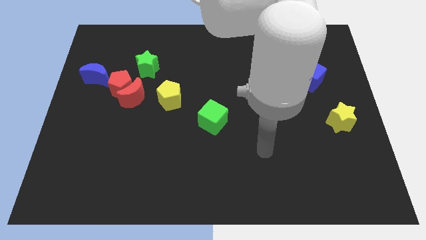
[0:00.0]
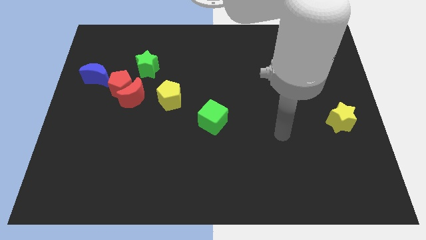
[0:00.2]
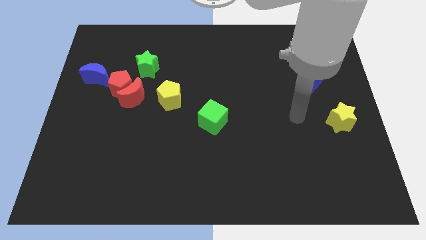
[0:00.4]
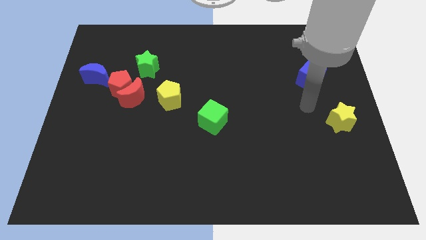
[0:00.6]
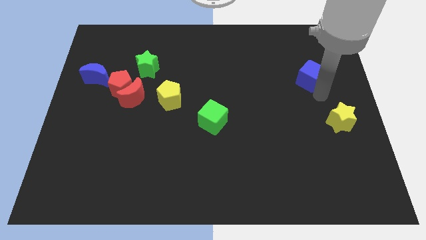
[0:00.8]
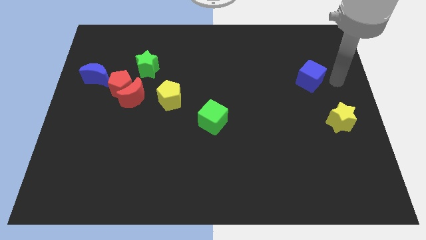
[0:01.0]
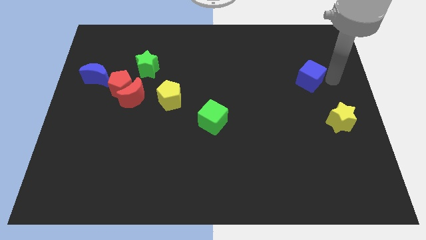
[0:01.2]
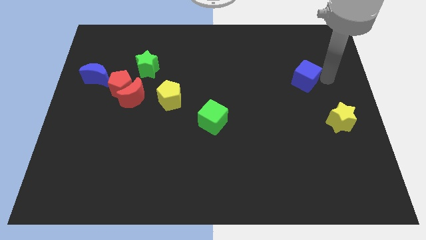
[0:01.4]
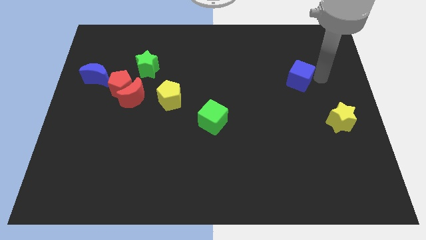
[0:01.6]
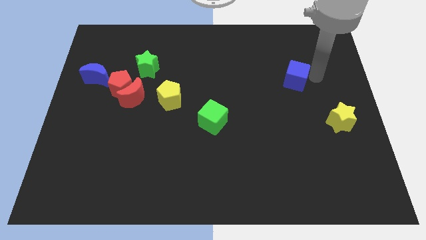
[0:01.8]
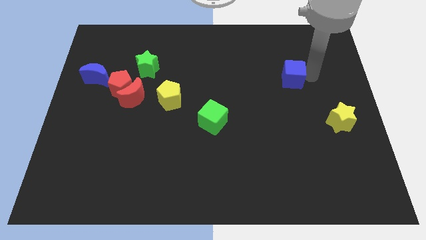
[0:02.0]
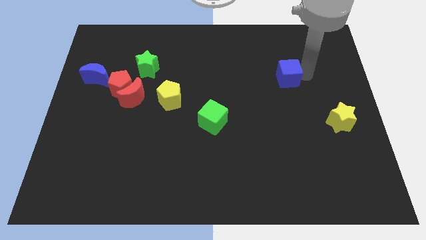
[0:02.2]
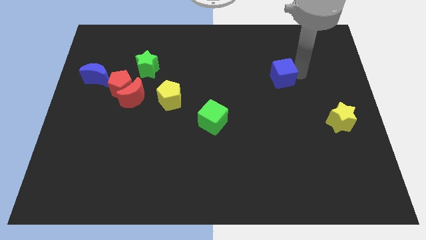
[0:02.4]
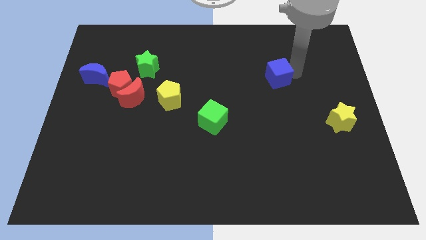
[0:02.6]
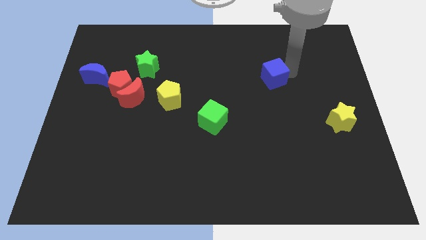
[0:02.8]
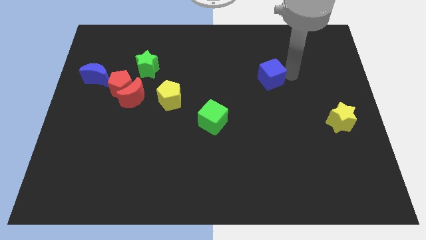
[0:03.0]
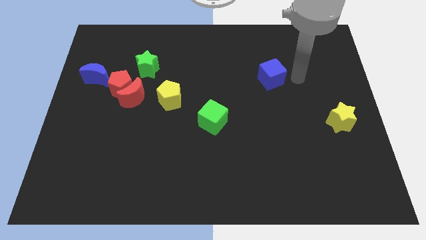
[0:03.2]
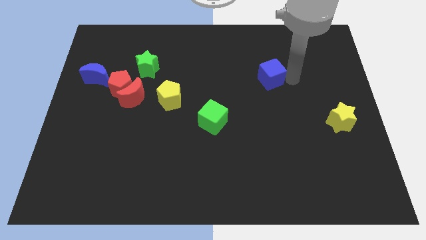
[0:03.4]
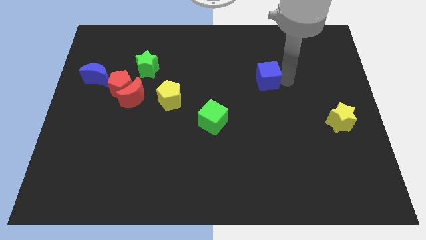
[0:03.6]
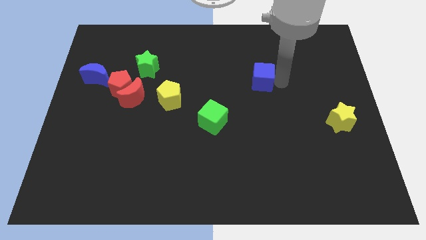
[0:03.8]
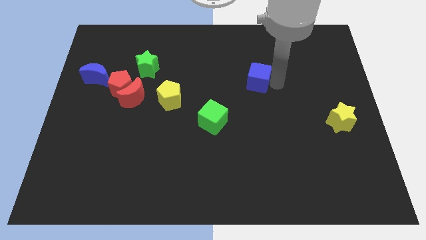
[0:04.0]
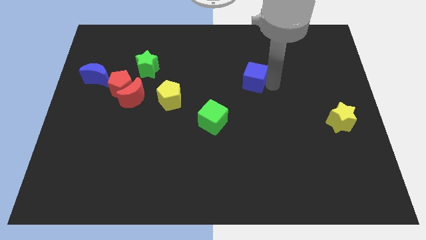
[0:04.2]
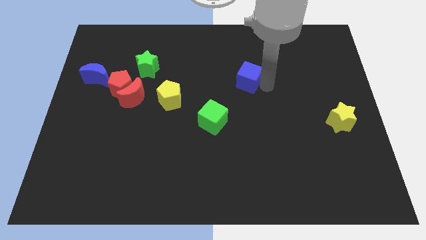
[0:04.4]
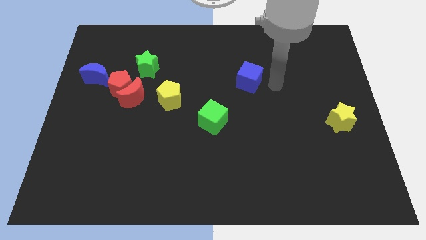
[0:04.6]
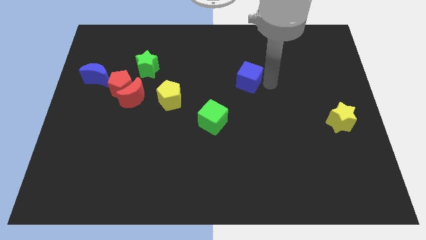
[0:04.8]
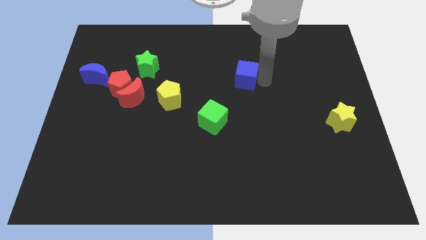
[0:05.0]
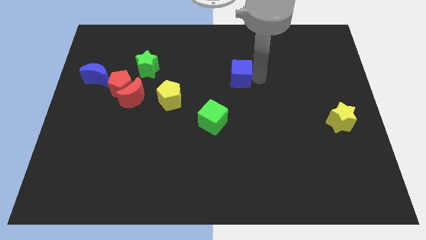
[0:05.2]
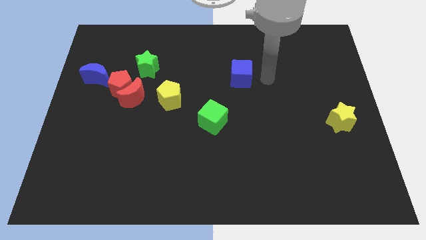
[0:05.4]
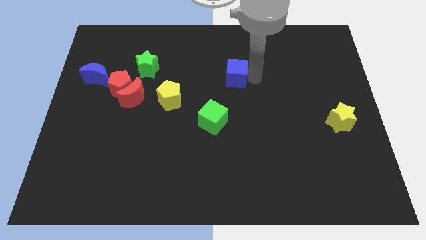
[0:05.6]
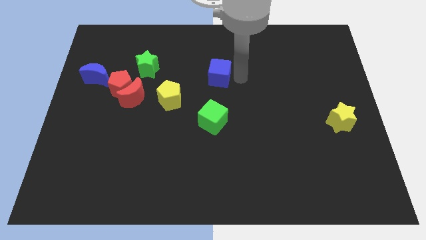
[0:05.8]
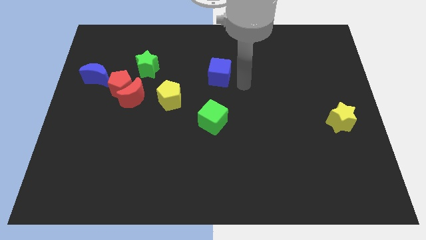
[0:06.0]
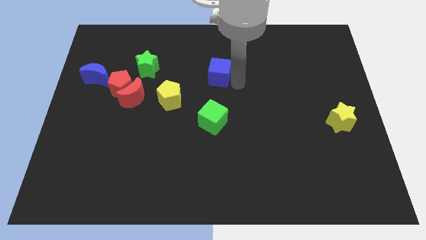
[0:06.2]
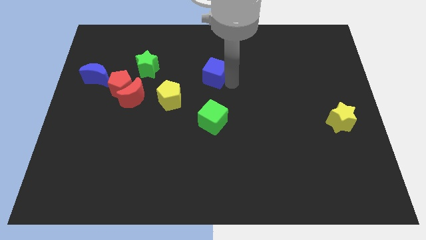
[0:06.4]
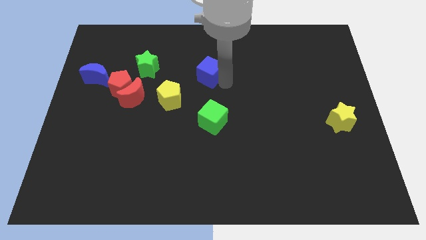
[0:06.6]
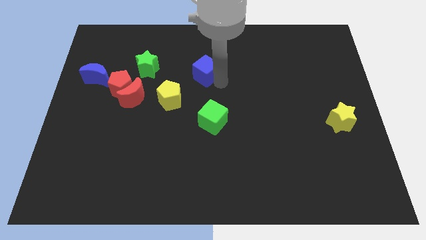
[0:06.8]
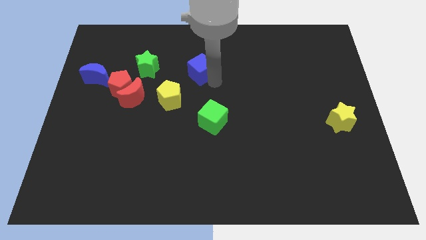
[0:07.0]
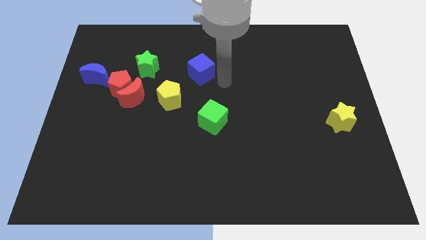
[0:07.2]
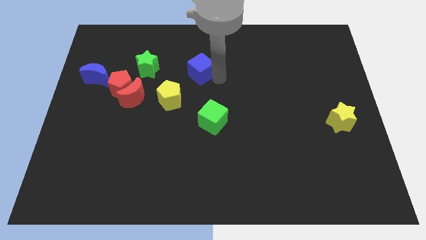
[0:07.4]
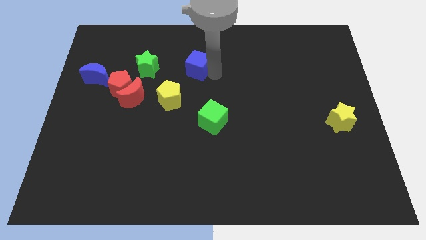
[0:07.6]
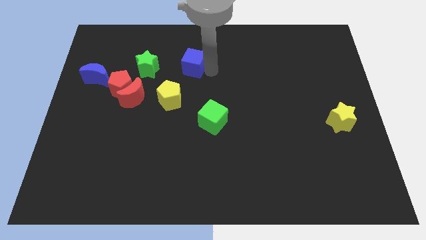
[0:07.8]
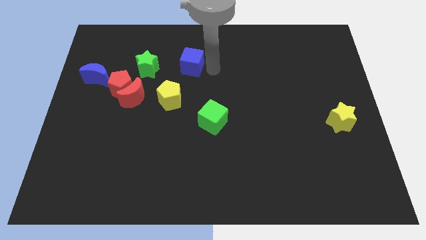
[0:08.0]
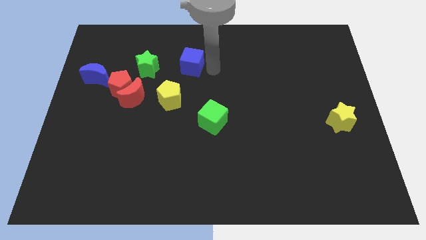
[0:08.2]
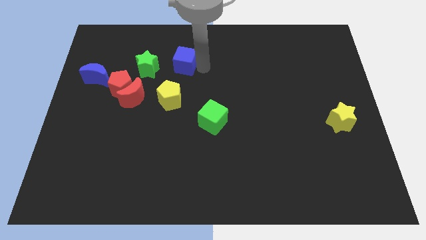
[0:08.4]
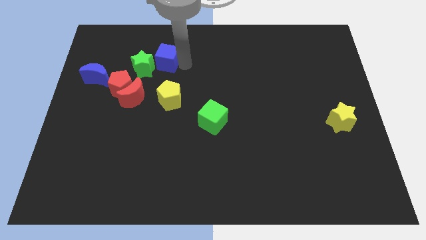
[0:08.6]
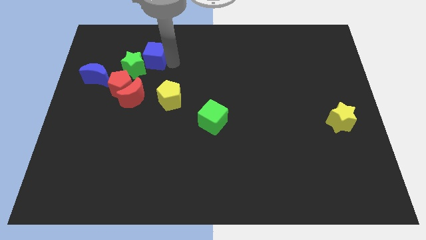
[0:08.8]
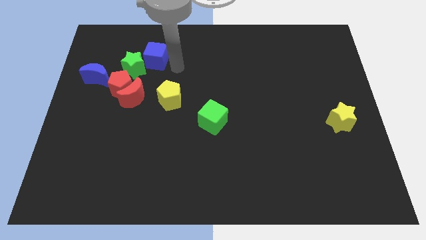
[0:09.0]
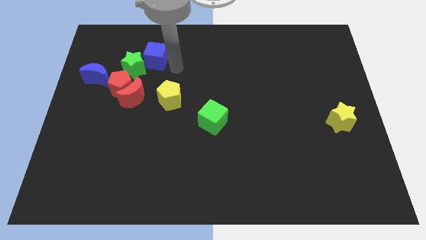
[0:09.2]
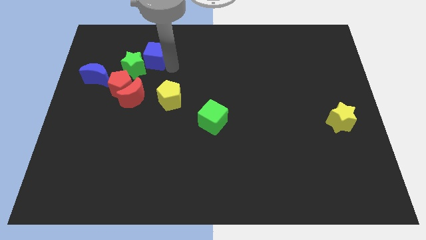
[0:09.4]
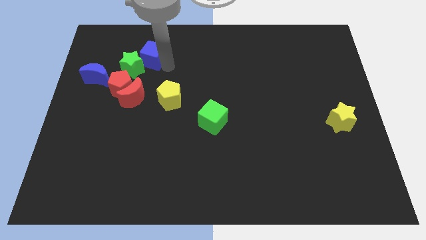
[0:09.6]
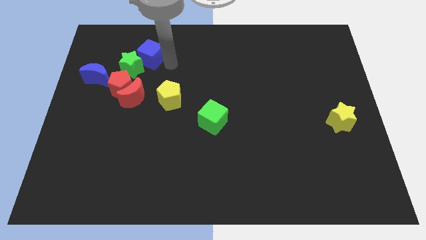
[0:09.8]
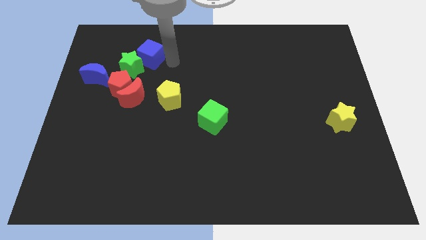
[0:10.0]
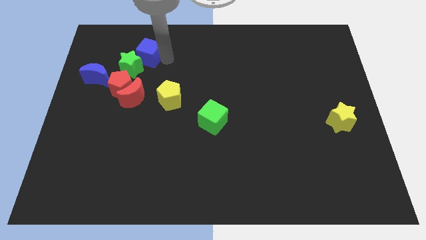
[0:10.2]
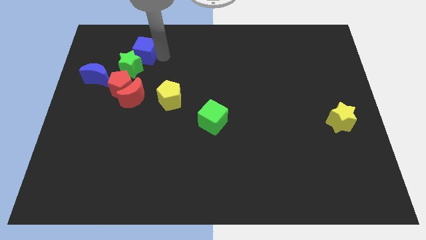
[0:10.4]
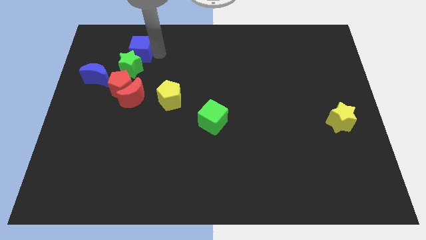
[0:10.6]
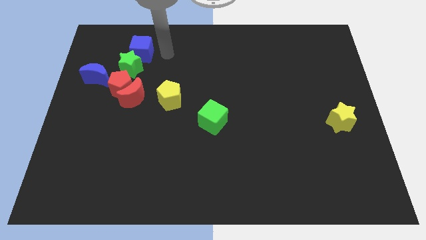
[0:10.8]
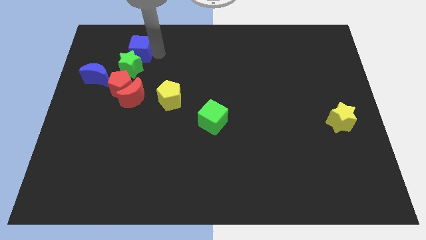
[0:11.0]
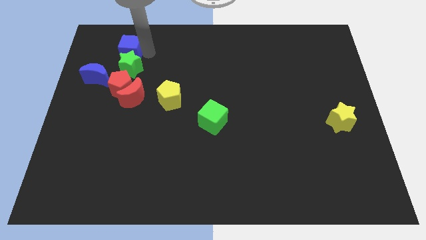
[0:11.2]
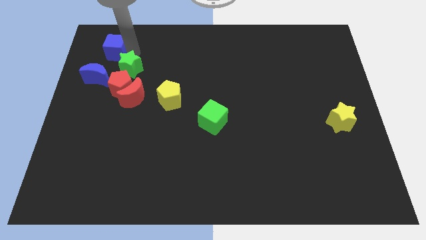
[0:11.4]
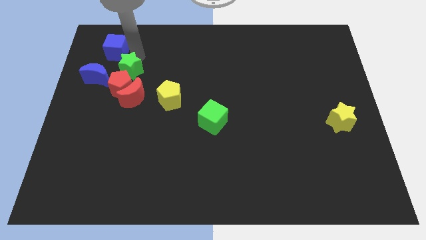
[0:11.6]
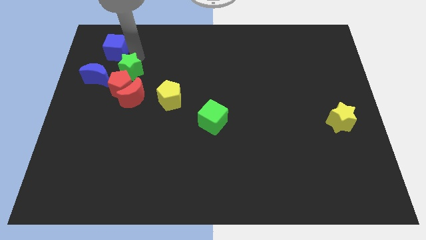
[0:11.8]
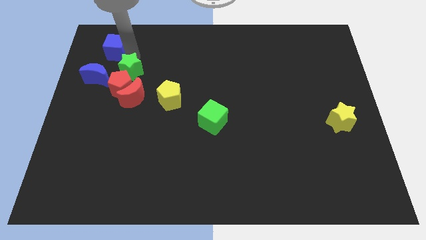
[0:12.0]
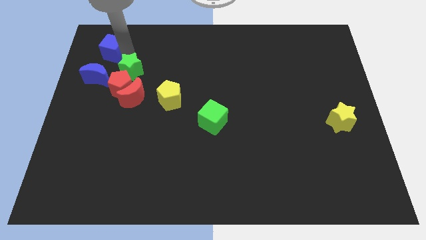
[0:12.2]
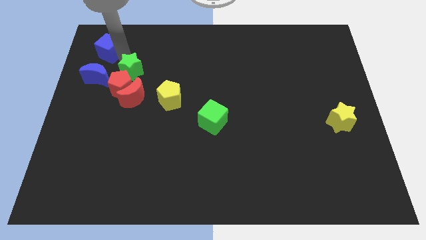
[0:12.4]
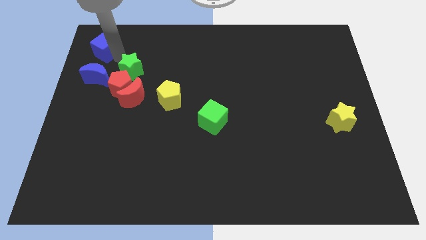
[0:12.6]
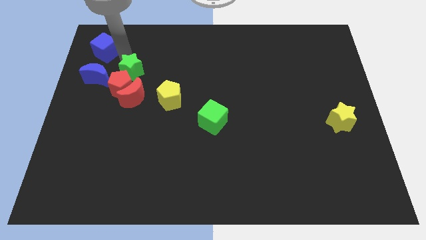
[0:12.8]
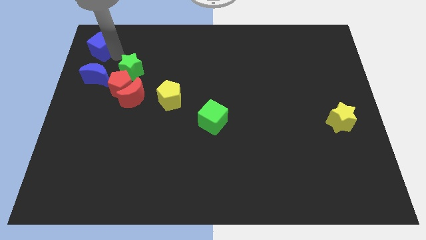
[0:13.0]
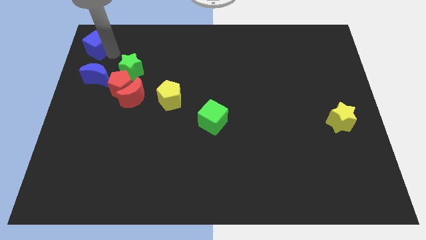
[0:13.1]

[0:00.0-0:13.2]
put the blue cube to the top left of the board
